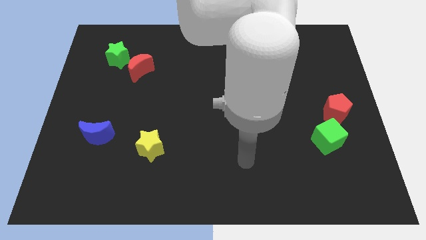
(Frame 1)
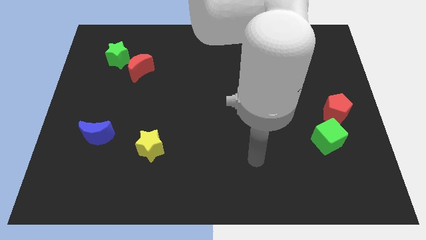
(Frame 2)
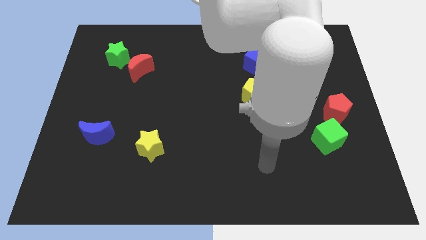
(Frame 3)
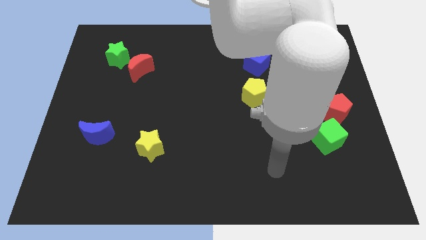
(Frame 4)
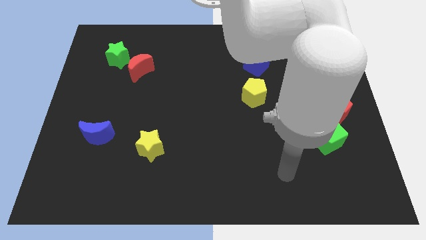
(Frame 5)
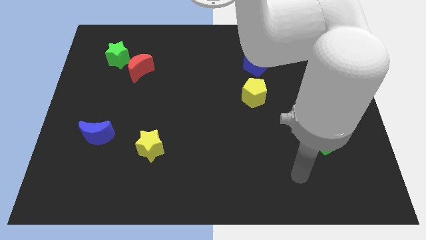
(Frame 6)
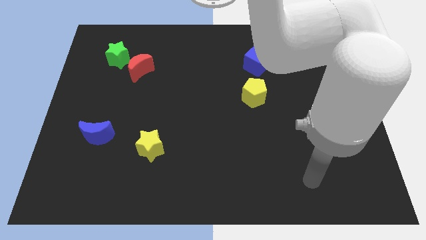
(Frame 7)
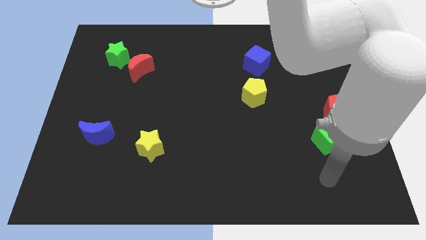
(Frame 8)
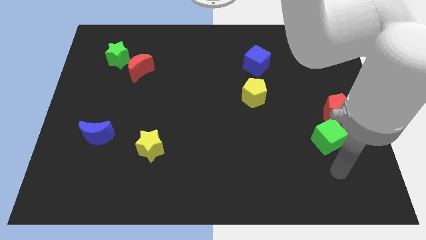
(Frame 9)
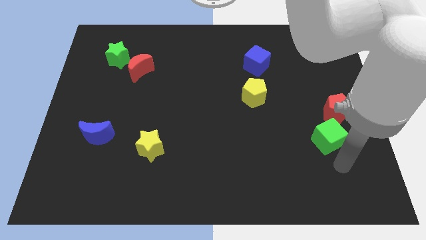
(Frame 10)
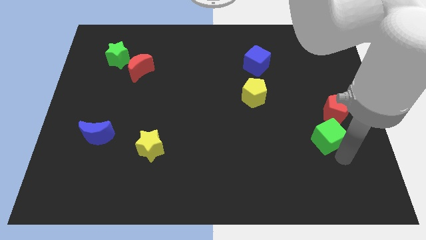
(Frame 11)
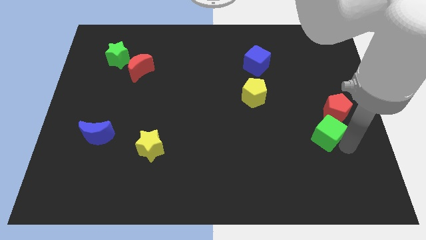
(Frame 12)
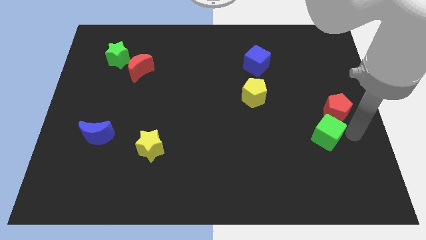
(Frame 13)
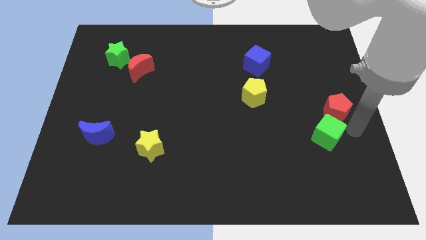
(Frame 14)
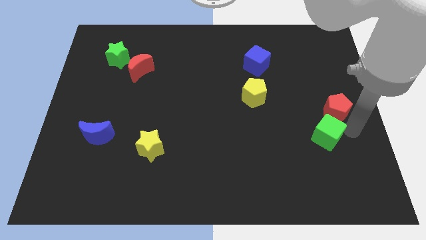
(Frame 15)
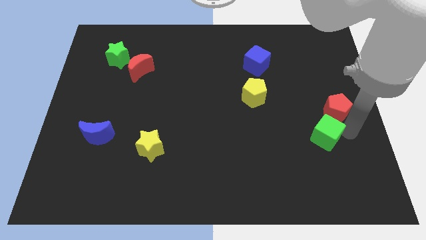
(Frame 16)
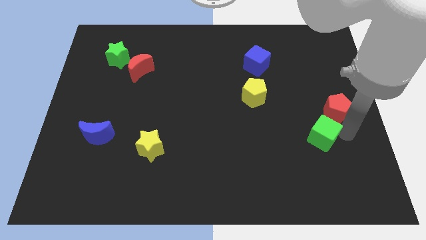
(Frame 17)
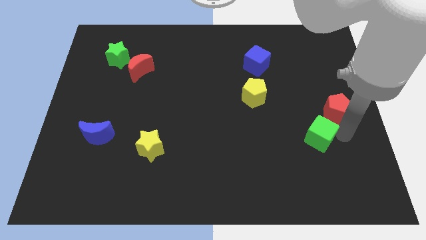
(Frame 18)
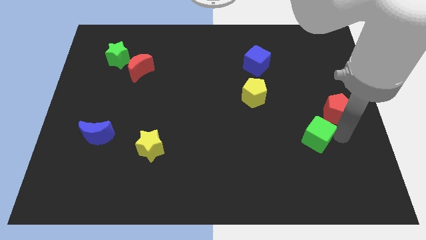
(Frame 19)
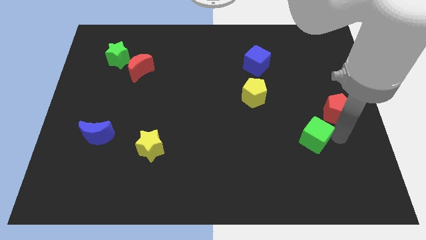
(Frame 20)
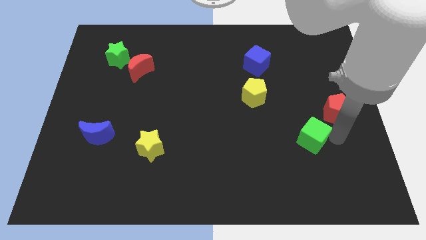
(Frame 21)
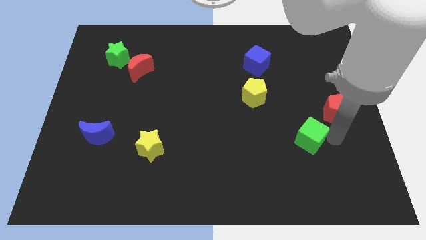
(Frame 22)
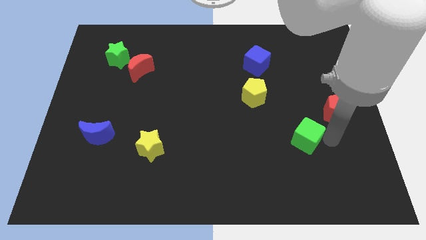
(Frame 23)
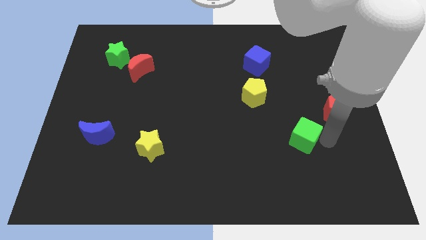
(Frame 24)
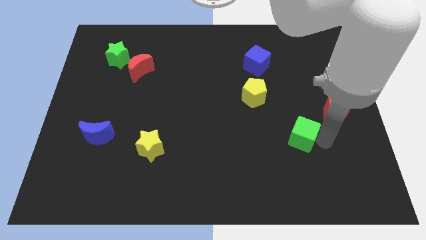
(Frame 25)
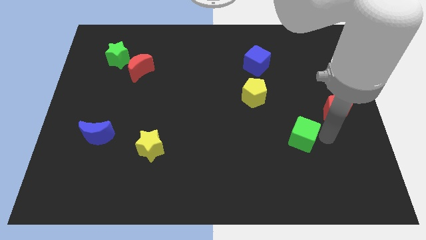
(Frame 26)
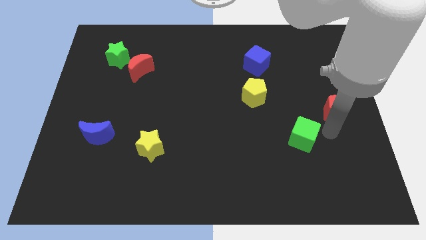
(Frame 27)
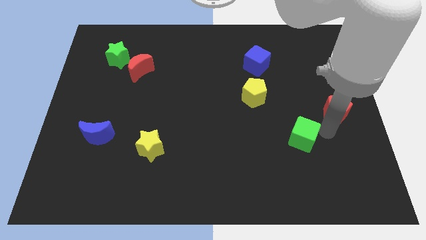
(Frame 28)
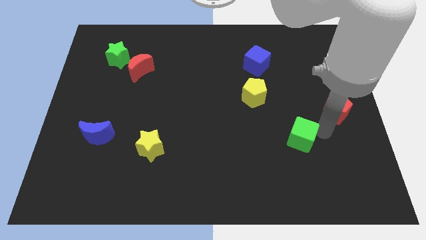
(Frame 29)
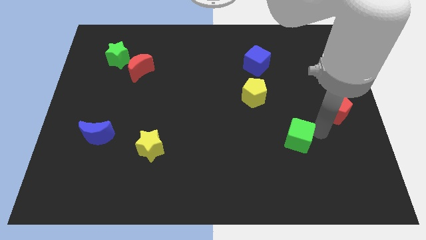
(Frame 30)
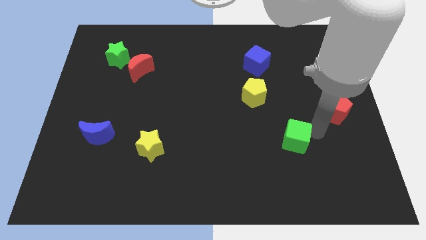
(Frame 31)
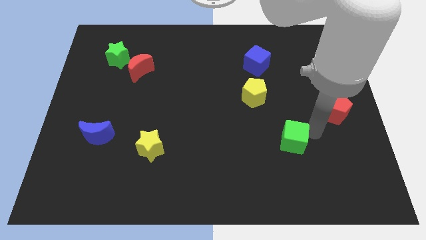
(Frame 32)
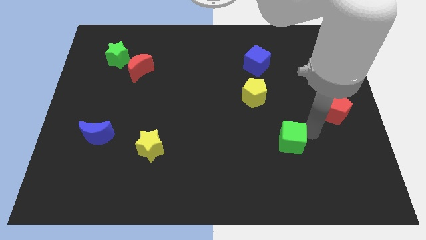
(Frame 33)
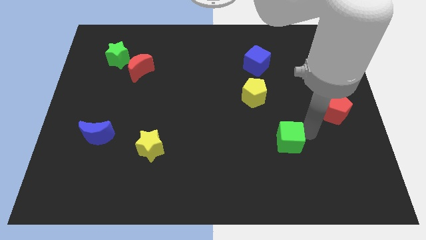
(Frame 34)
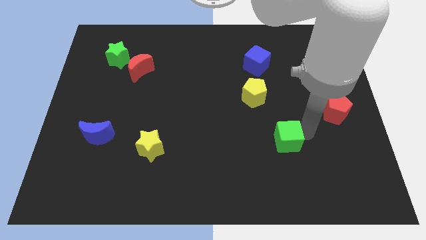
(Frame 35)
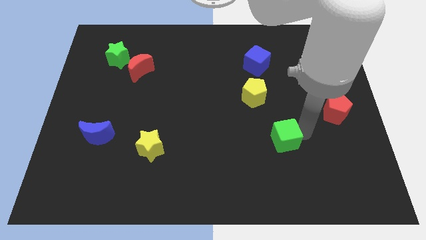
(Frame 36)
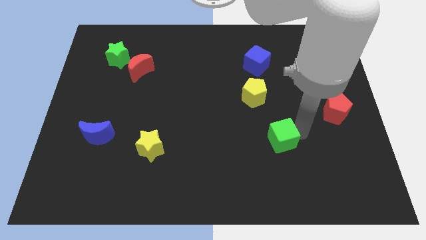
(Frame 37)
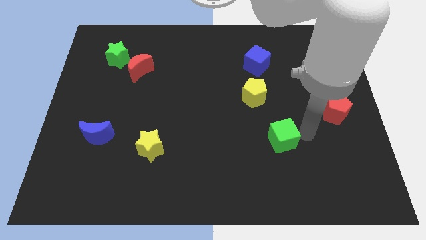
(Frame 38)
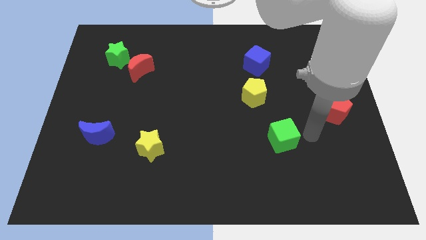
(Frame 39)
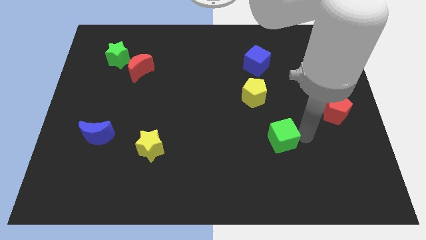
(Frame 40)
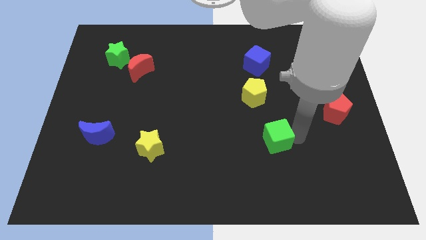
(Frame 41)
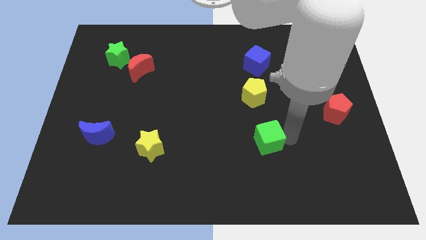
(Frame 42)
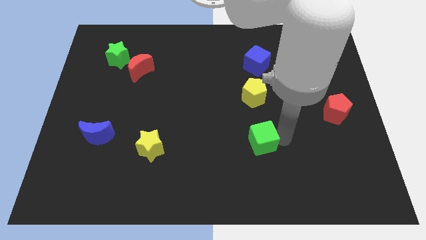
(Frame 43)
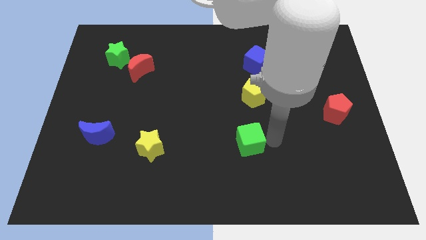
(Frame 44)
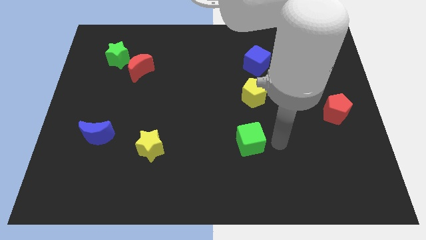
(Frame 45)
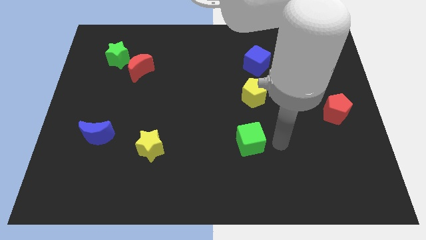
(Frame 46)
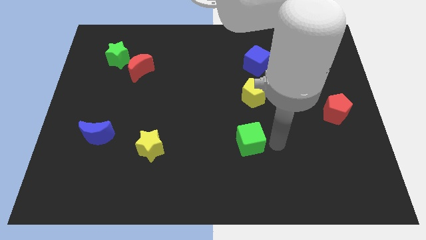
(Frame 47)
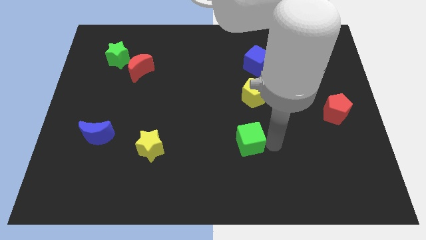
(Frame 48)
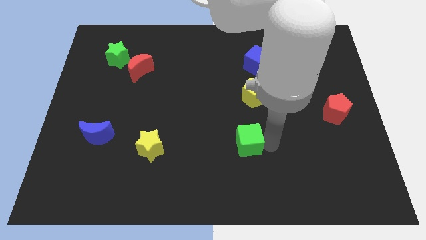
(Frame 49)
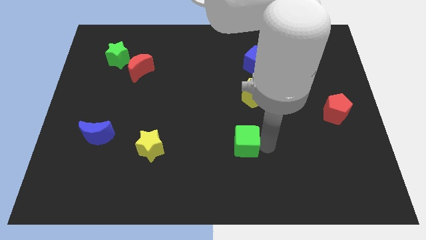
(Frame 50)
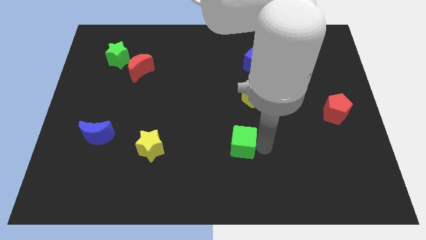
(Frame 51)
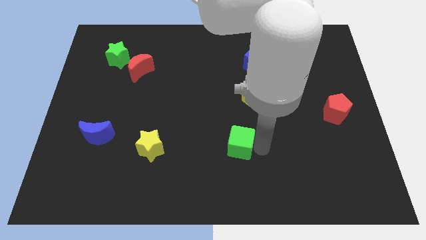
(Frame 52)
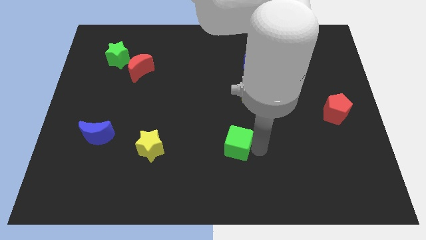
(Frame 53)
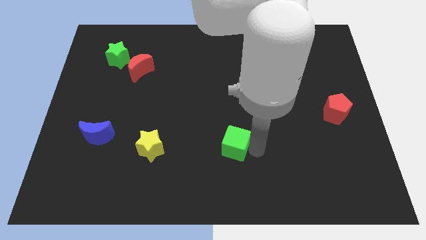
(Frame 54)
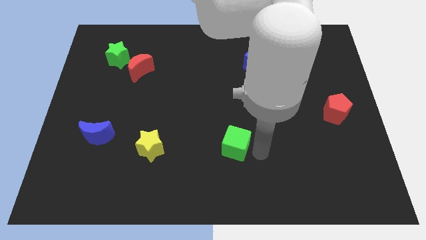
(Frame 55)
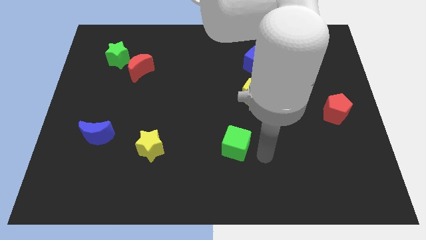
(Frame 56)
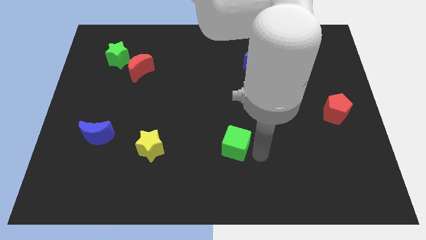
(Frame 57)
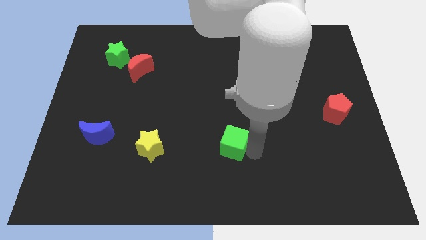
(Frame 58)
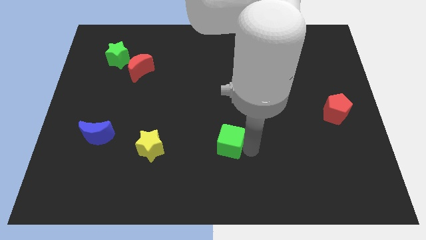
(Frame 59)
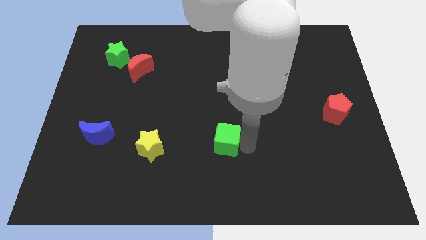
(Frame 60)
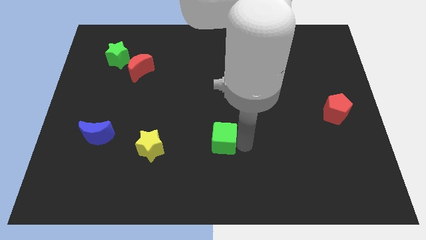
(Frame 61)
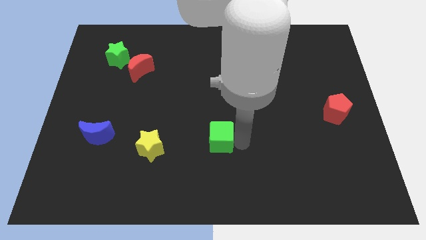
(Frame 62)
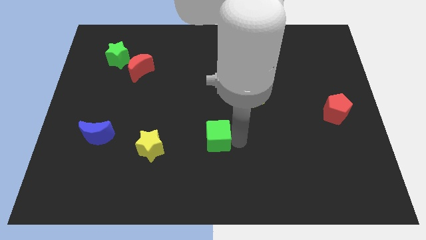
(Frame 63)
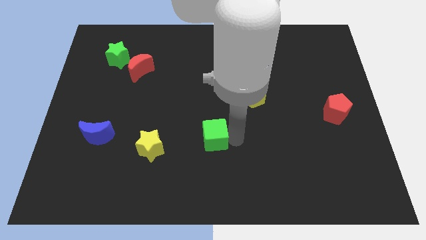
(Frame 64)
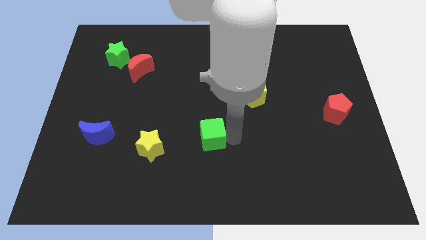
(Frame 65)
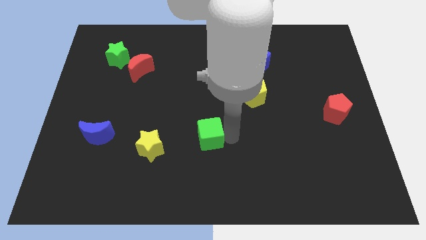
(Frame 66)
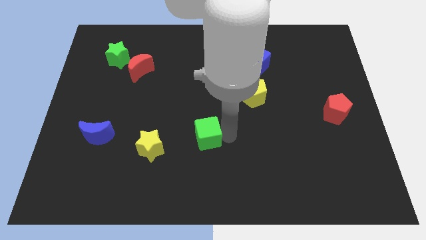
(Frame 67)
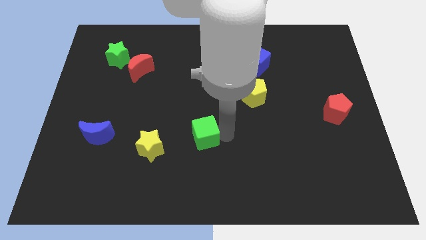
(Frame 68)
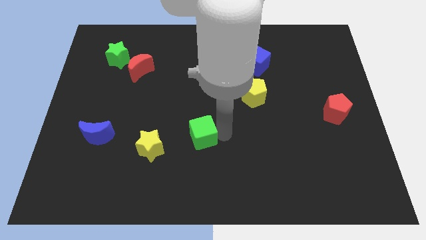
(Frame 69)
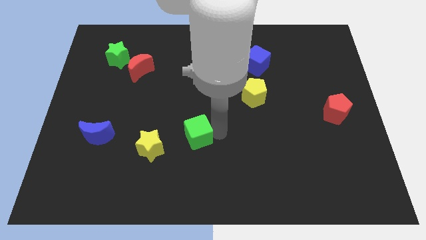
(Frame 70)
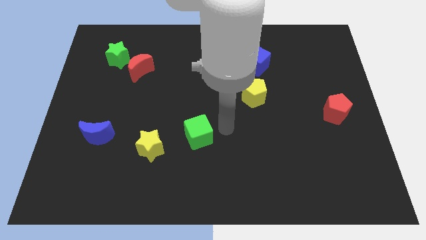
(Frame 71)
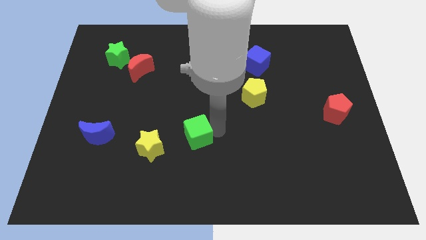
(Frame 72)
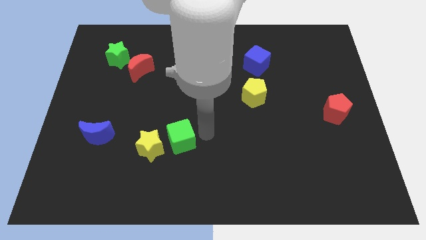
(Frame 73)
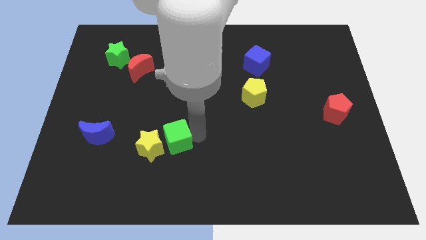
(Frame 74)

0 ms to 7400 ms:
push the green cube next to the yellow star
